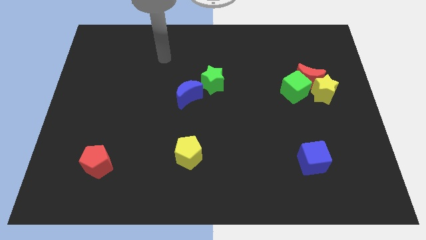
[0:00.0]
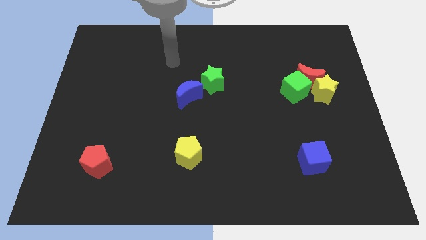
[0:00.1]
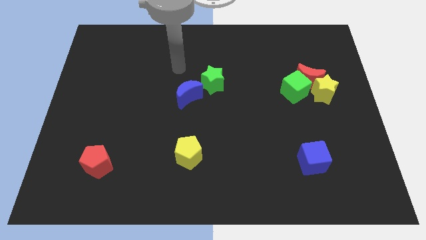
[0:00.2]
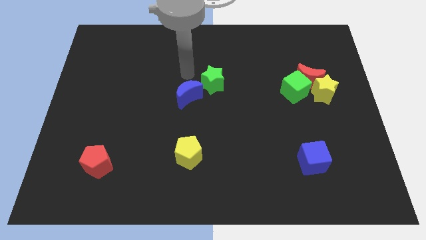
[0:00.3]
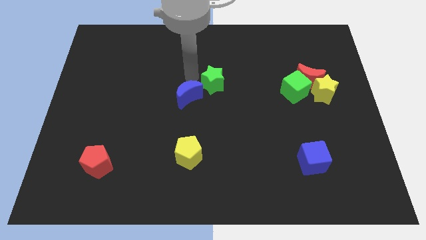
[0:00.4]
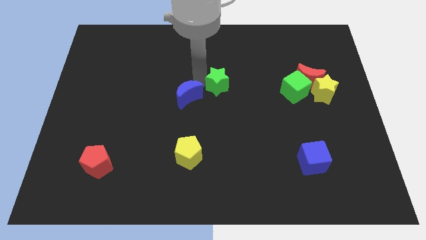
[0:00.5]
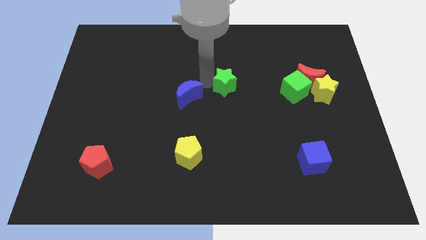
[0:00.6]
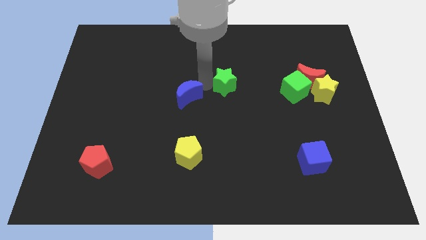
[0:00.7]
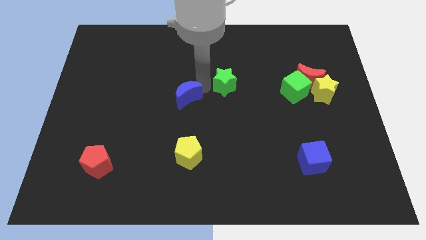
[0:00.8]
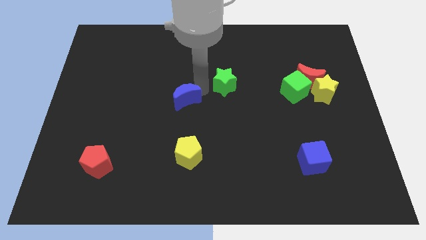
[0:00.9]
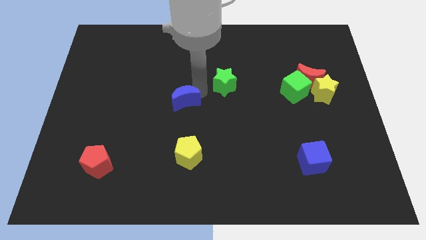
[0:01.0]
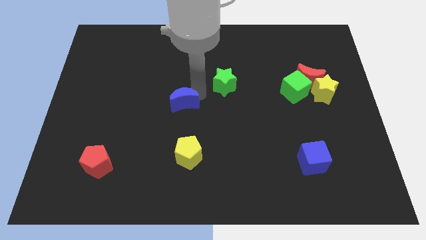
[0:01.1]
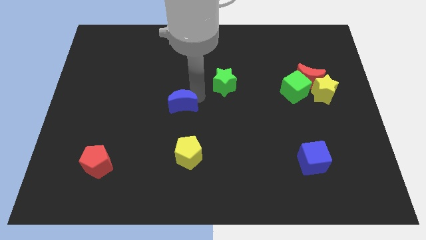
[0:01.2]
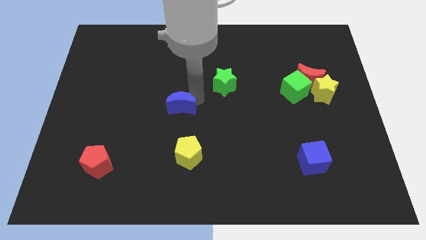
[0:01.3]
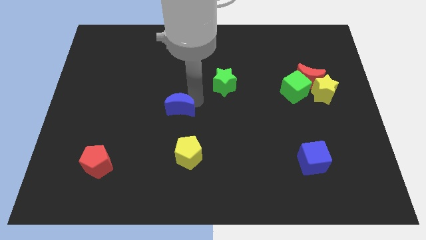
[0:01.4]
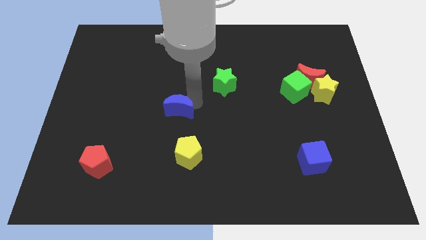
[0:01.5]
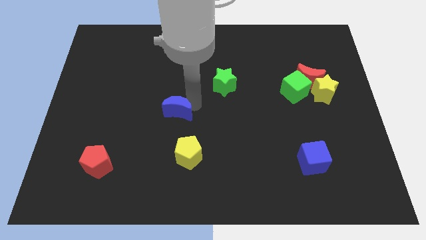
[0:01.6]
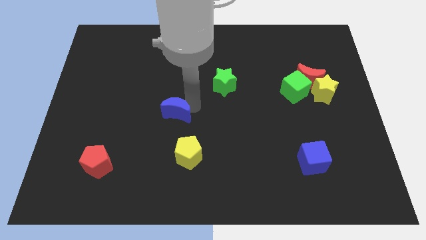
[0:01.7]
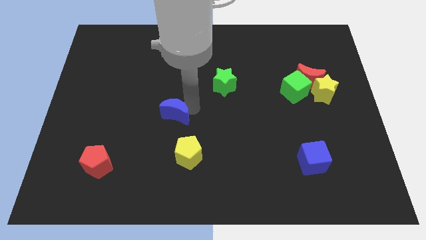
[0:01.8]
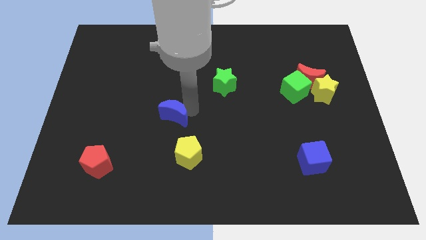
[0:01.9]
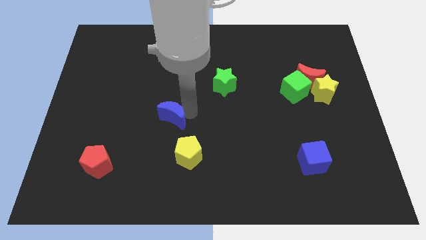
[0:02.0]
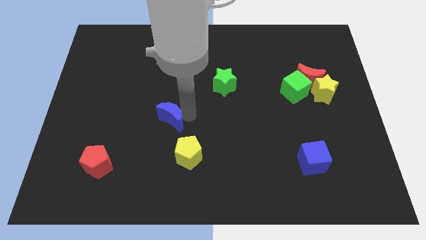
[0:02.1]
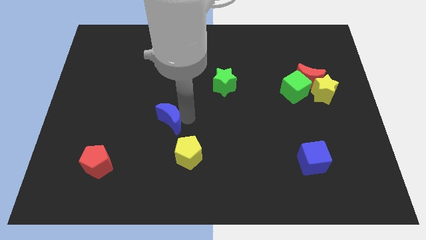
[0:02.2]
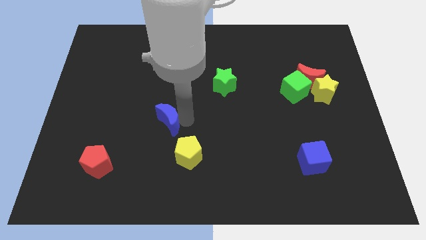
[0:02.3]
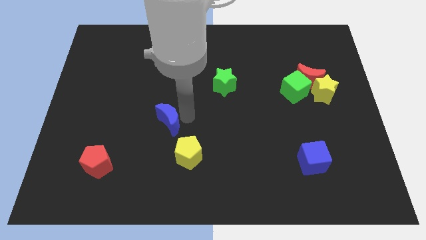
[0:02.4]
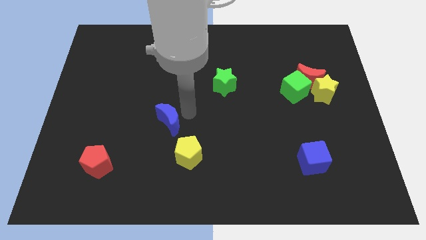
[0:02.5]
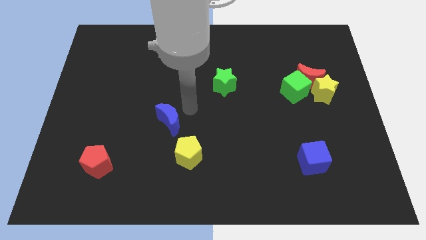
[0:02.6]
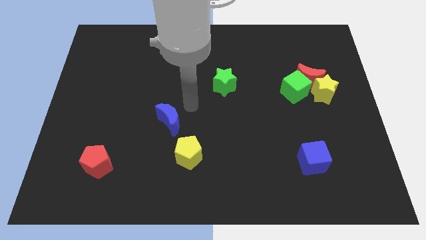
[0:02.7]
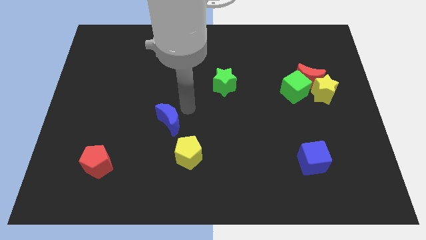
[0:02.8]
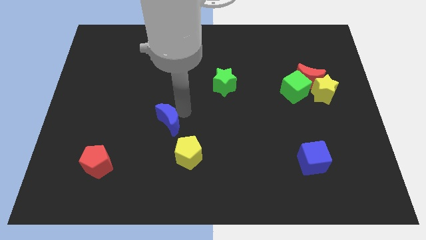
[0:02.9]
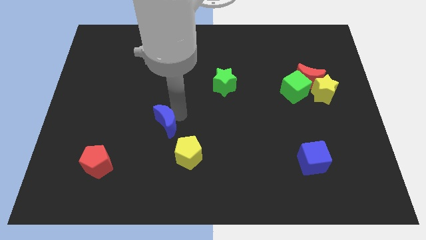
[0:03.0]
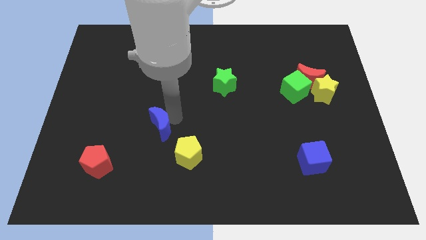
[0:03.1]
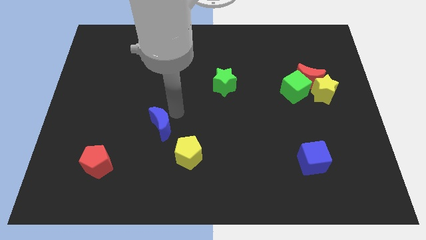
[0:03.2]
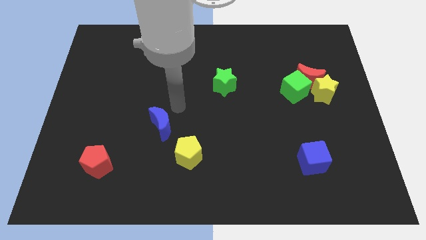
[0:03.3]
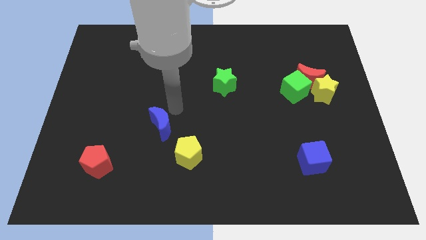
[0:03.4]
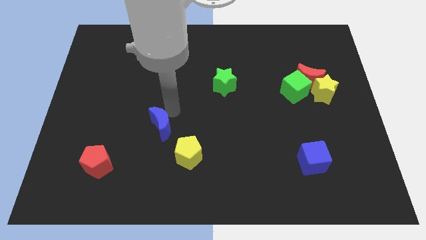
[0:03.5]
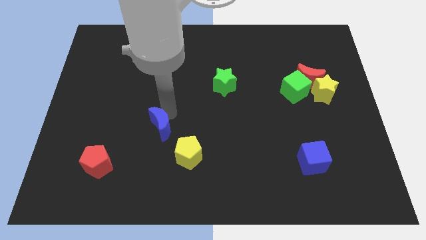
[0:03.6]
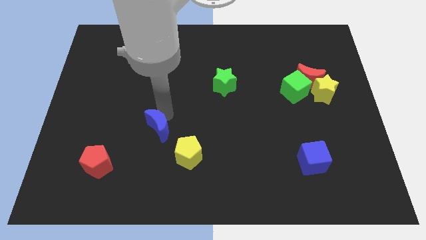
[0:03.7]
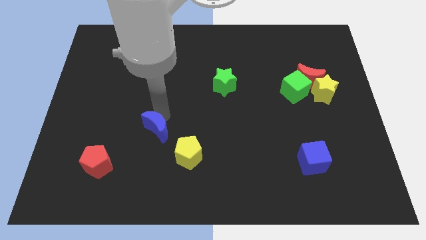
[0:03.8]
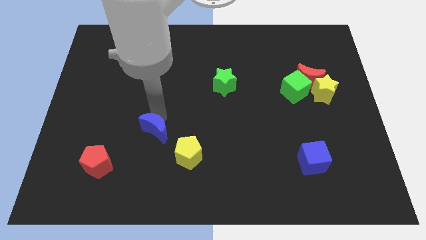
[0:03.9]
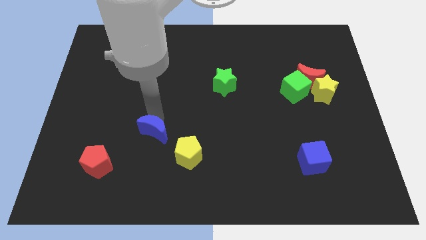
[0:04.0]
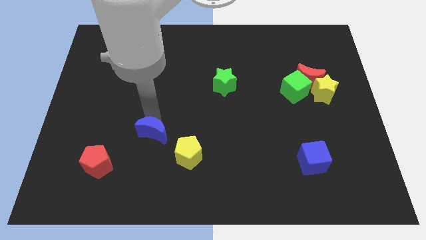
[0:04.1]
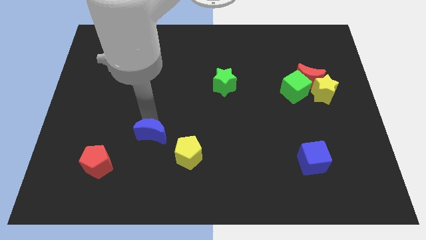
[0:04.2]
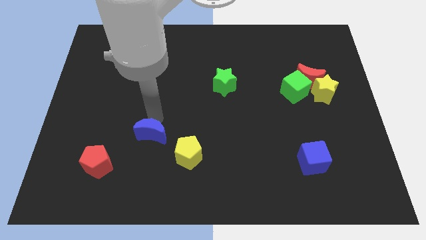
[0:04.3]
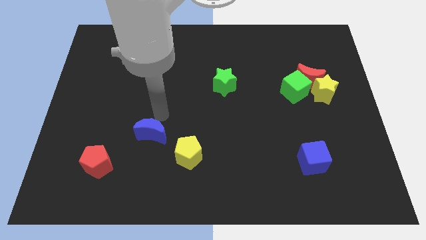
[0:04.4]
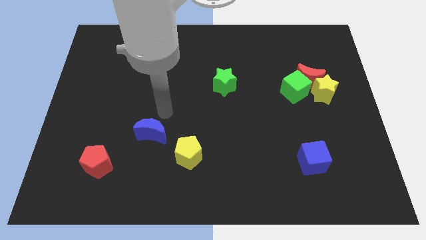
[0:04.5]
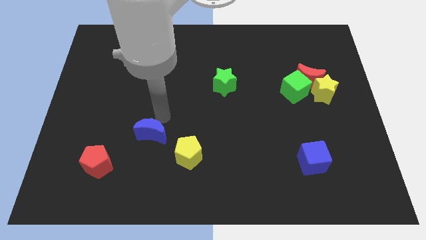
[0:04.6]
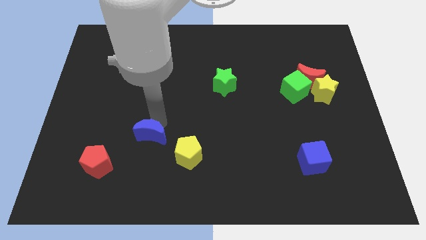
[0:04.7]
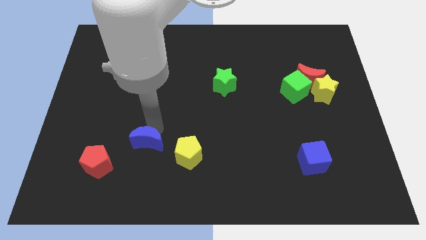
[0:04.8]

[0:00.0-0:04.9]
push the blue moon just left of the yellow pentagon

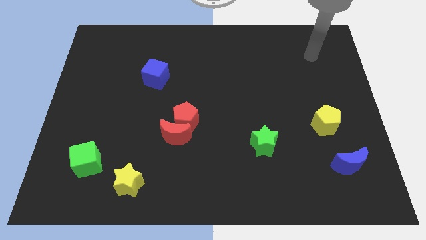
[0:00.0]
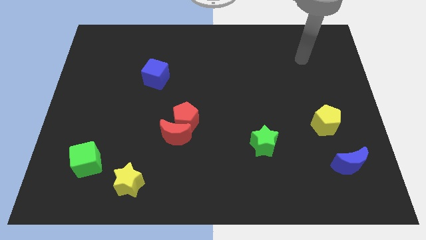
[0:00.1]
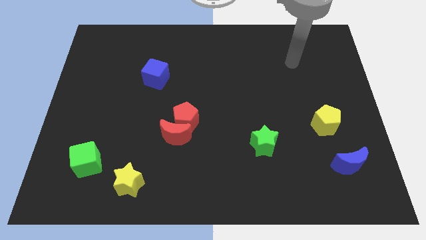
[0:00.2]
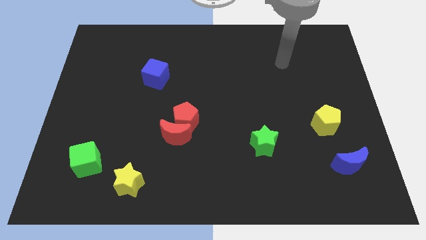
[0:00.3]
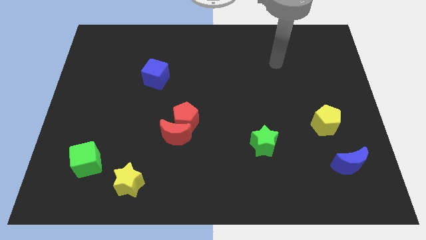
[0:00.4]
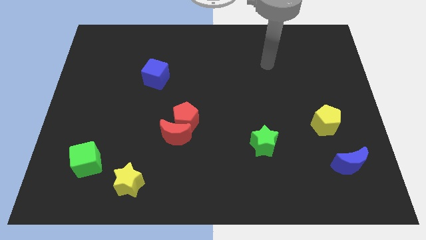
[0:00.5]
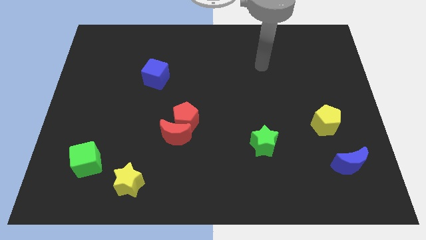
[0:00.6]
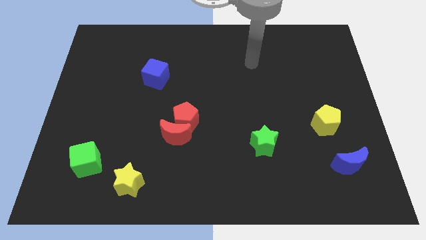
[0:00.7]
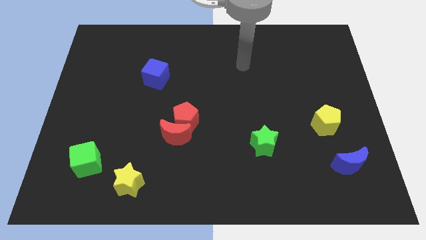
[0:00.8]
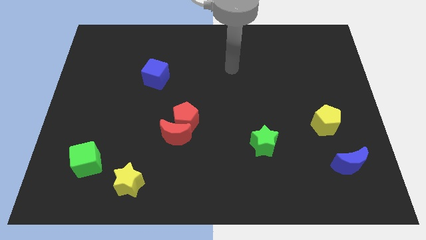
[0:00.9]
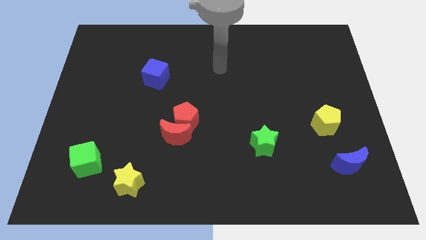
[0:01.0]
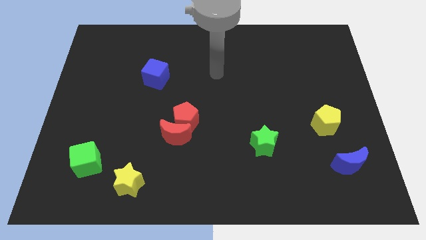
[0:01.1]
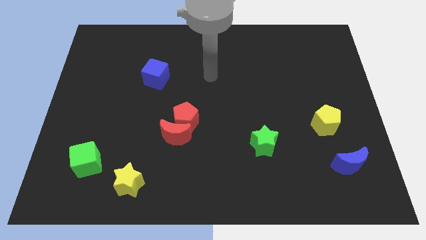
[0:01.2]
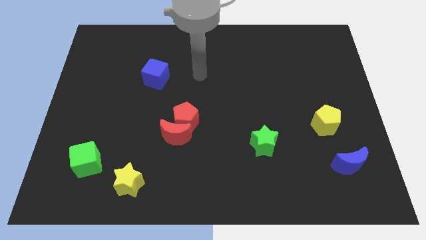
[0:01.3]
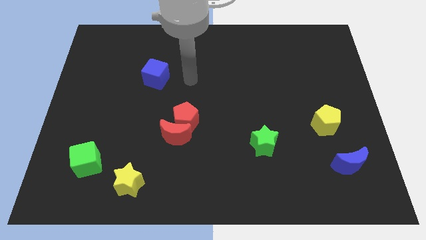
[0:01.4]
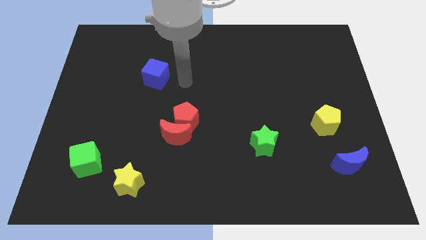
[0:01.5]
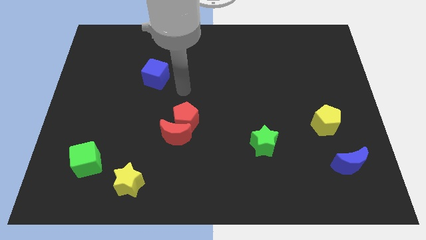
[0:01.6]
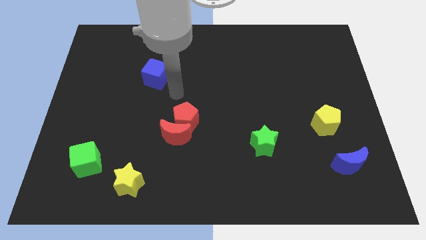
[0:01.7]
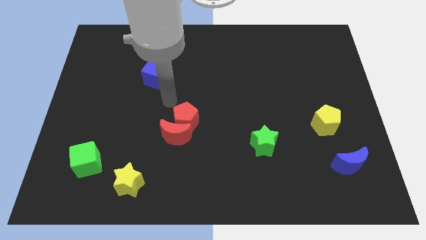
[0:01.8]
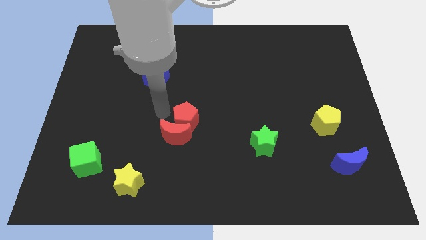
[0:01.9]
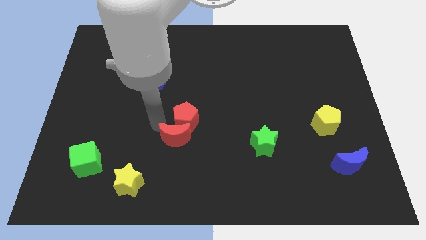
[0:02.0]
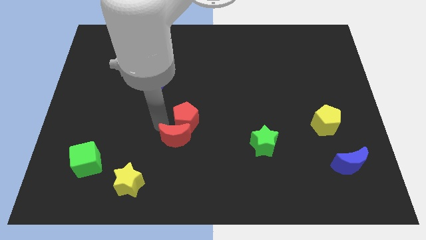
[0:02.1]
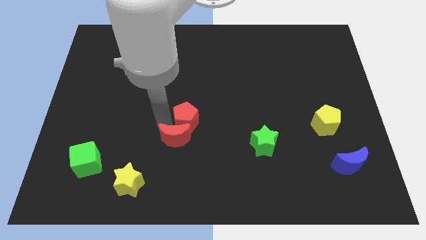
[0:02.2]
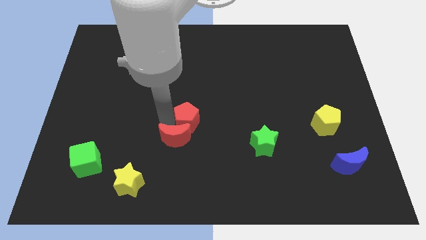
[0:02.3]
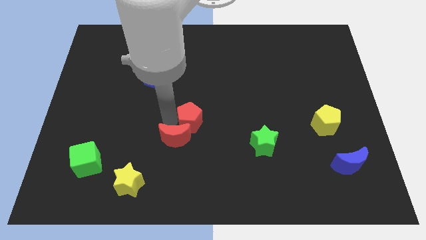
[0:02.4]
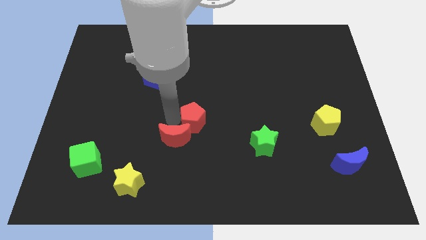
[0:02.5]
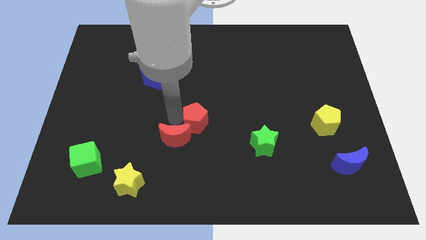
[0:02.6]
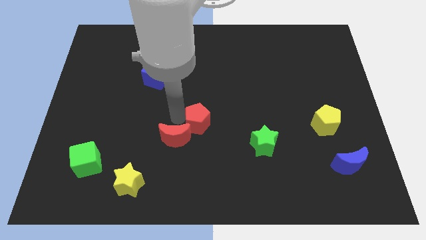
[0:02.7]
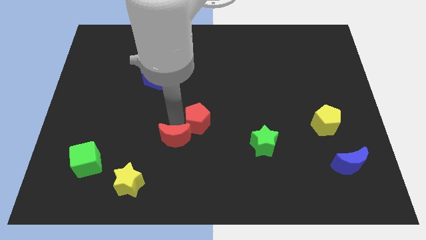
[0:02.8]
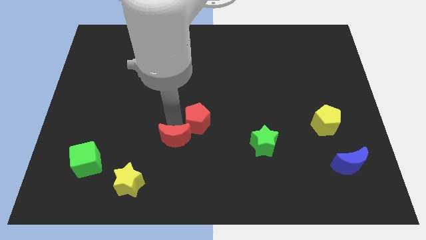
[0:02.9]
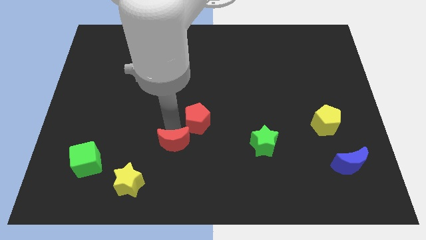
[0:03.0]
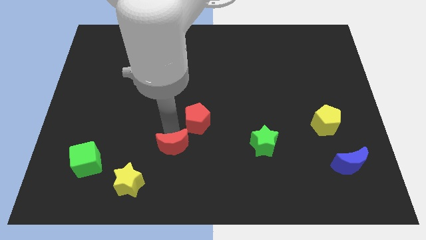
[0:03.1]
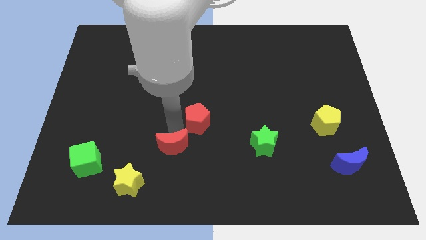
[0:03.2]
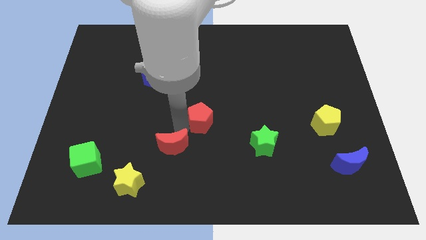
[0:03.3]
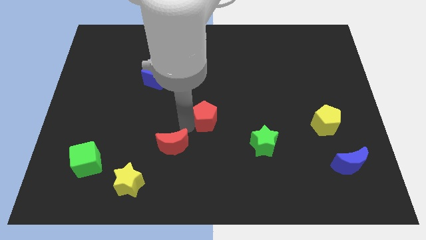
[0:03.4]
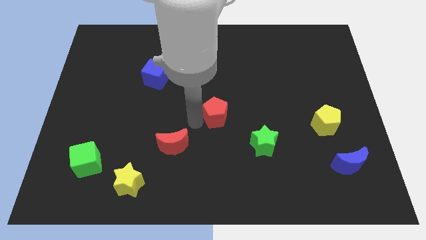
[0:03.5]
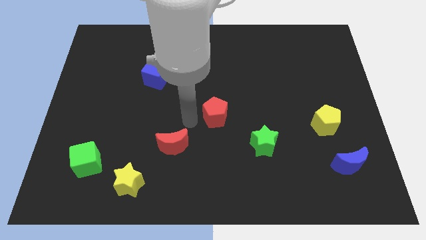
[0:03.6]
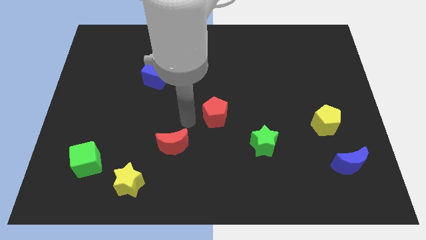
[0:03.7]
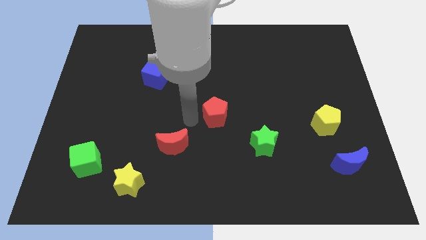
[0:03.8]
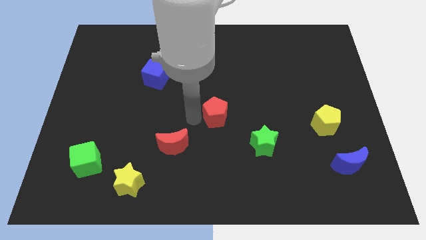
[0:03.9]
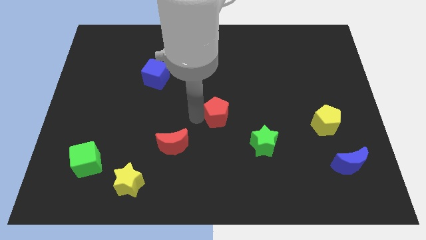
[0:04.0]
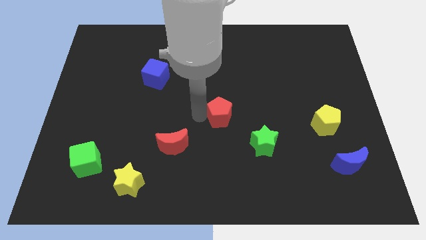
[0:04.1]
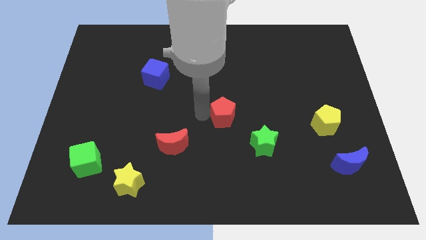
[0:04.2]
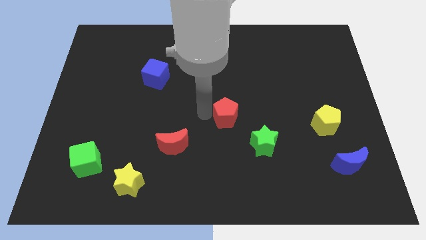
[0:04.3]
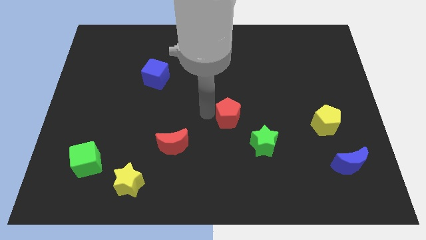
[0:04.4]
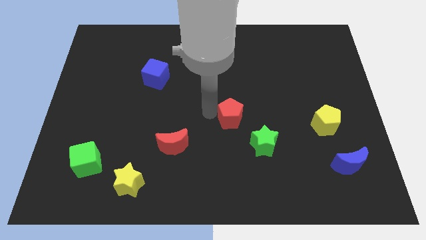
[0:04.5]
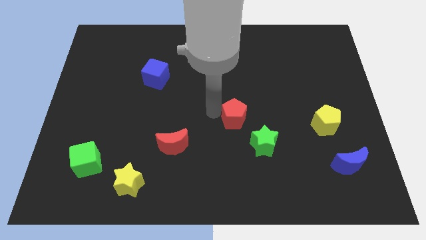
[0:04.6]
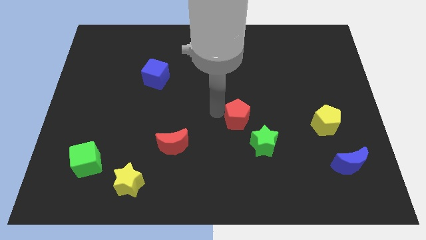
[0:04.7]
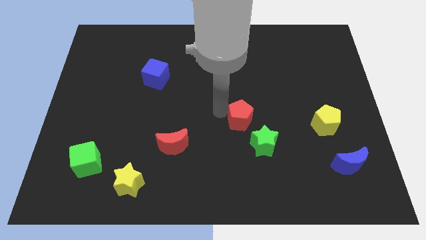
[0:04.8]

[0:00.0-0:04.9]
push the red pentagon to the top of the green star
